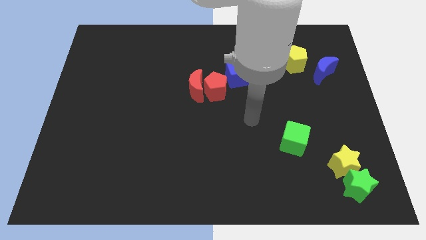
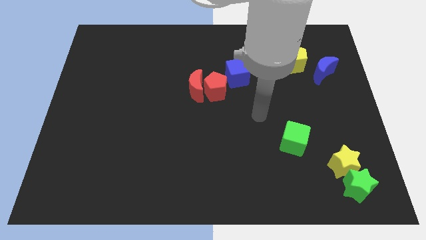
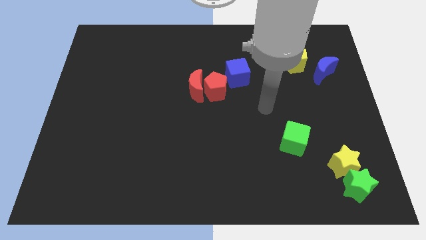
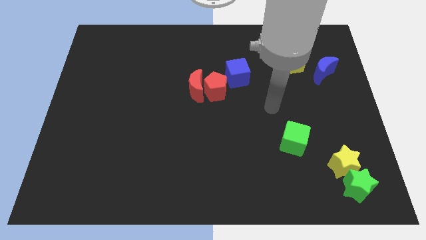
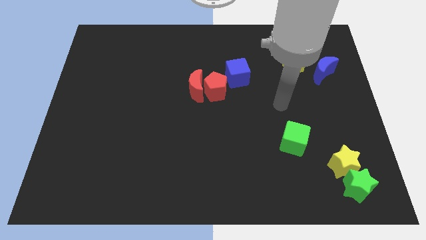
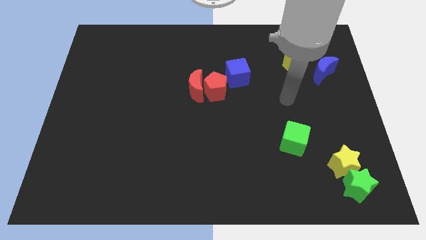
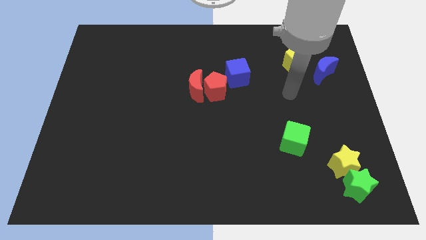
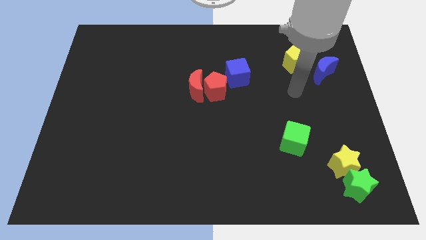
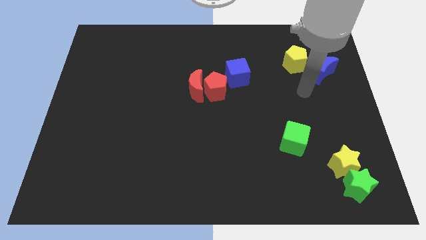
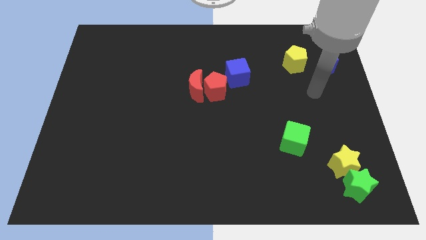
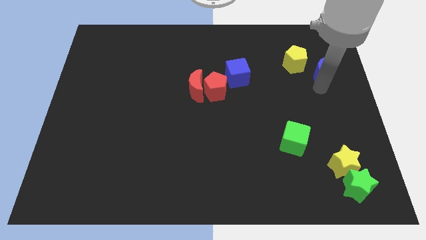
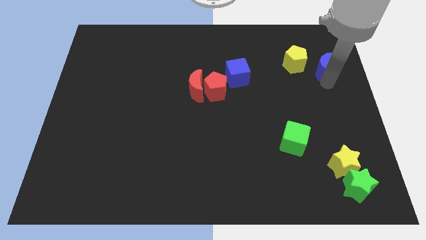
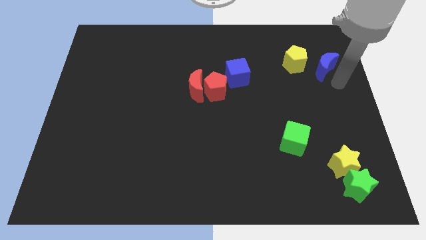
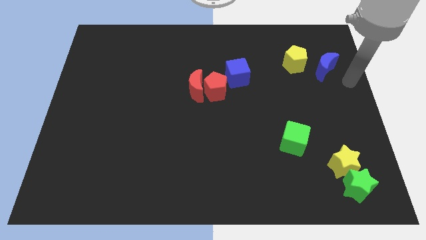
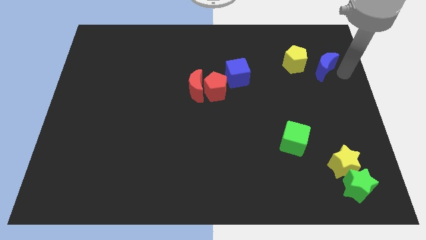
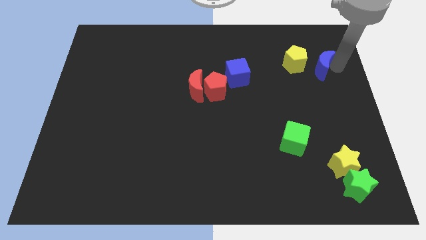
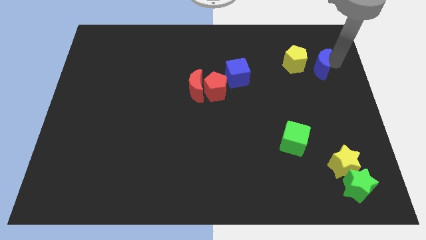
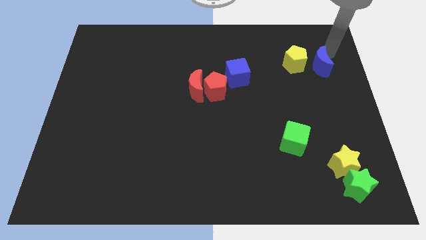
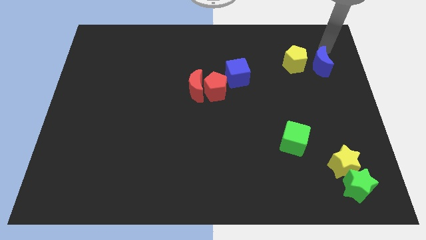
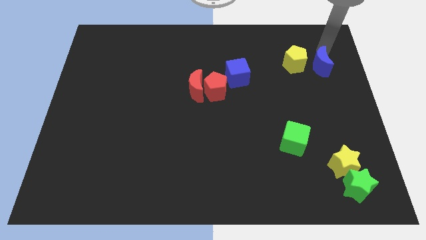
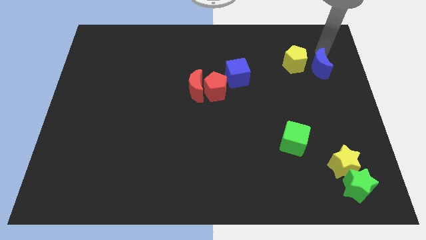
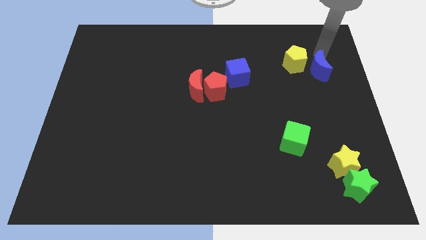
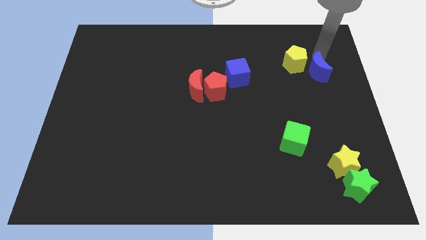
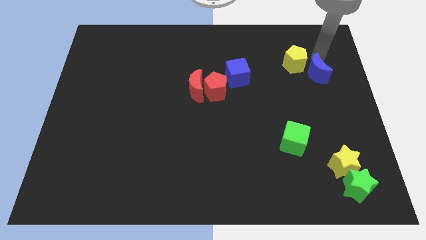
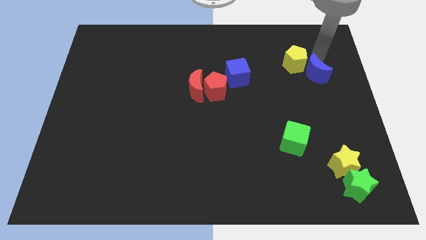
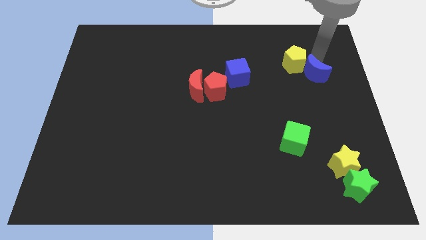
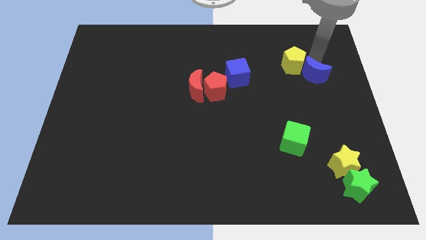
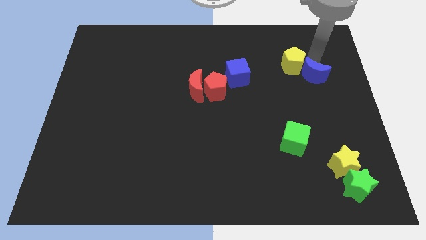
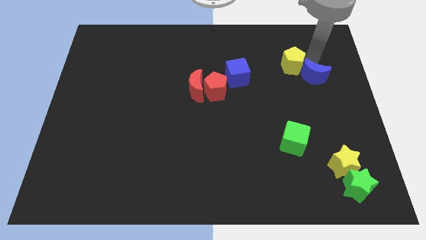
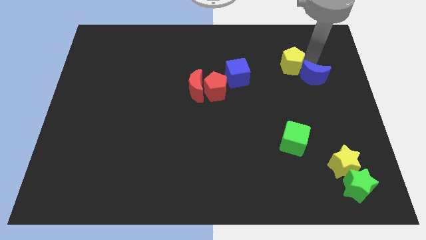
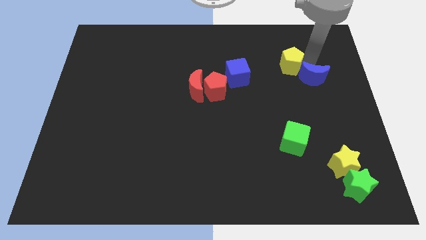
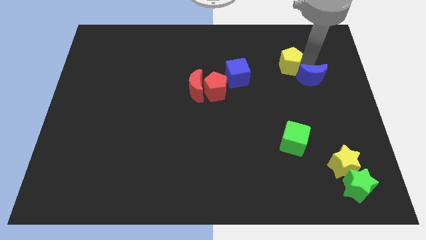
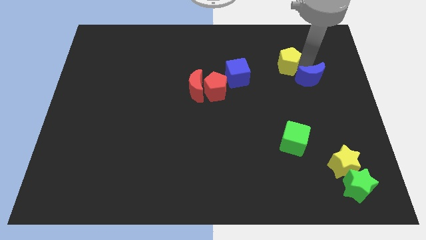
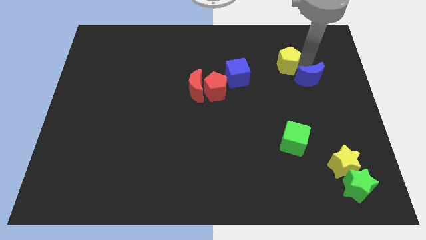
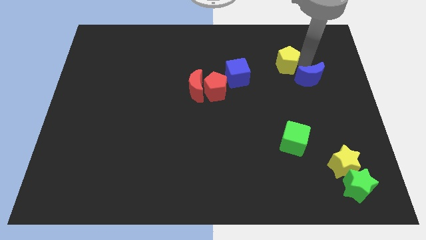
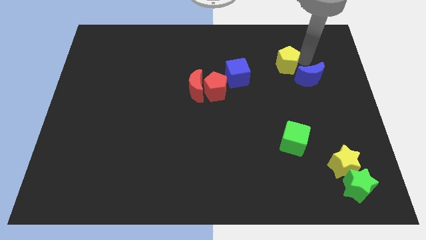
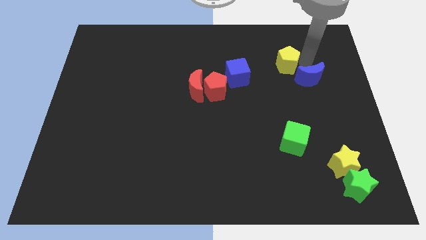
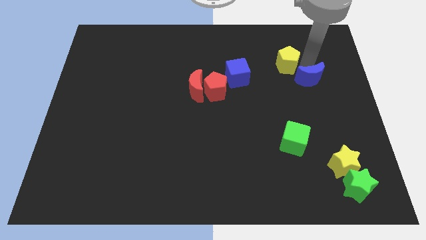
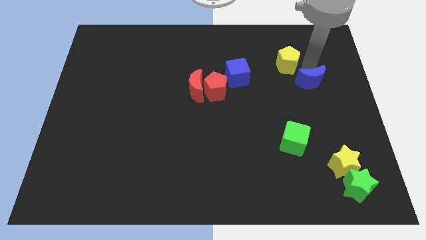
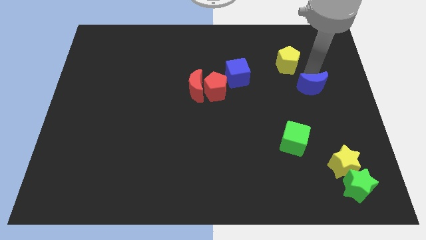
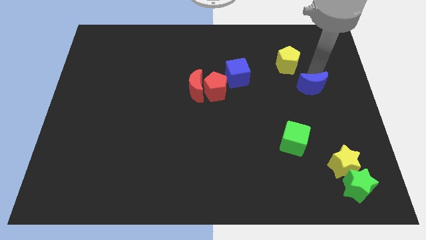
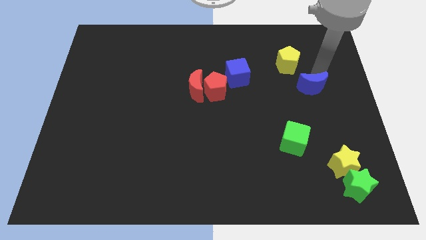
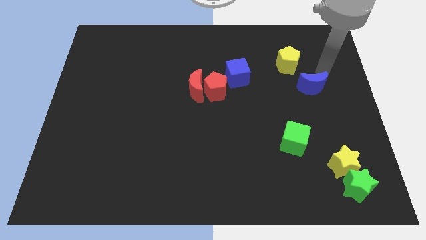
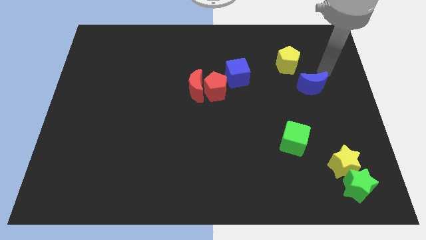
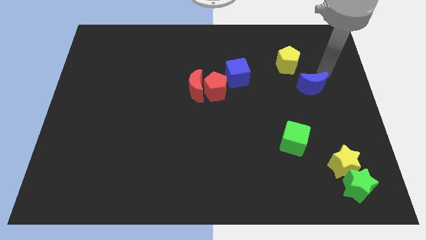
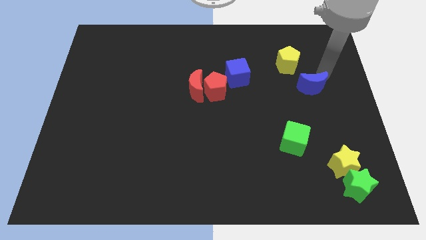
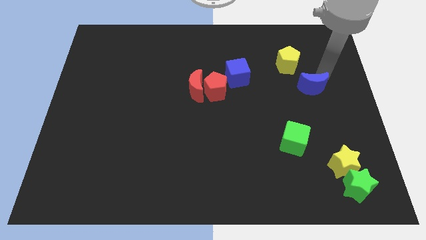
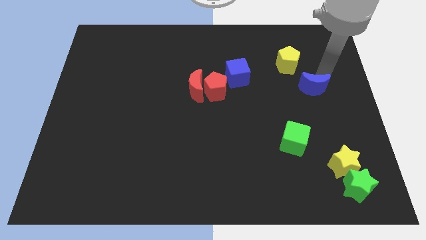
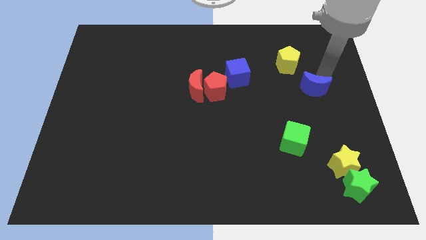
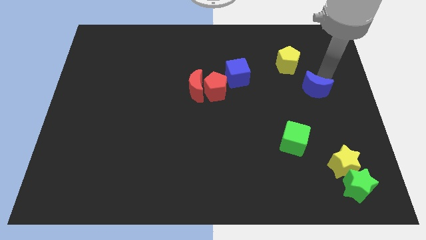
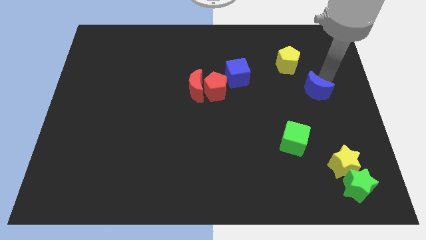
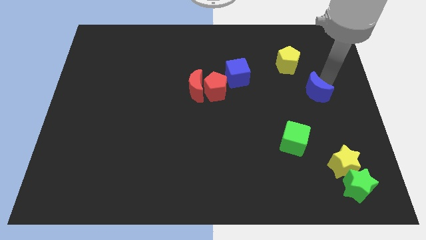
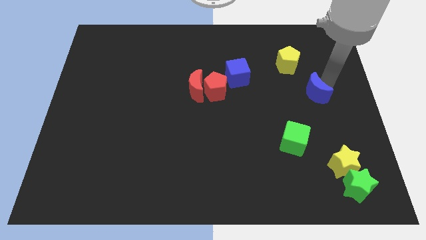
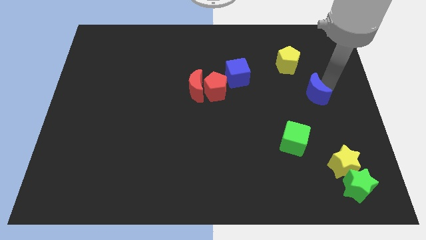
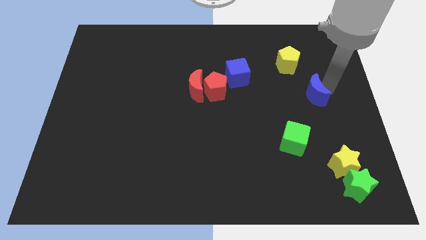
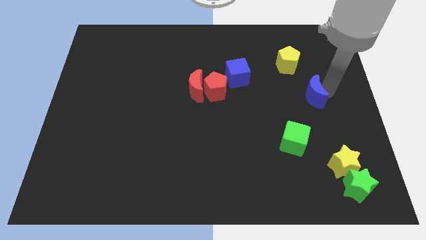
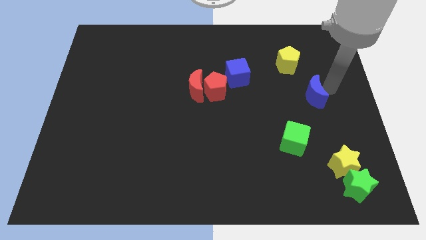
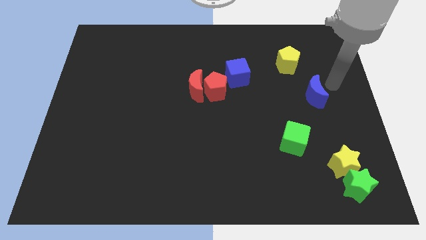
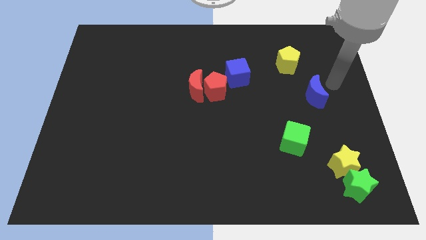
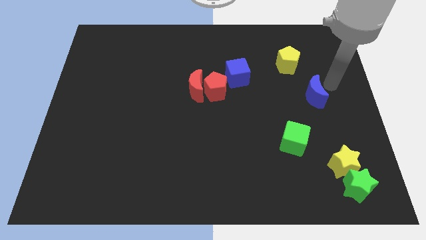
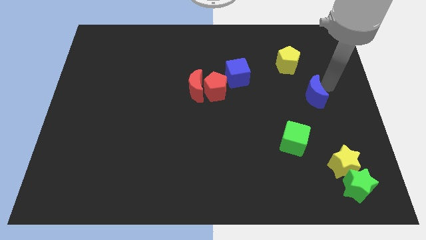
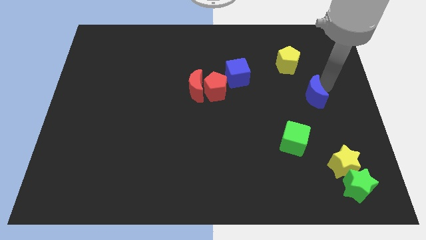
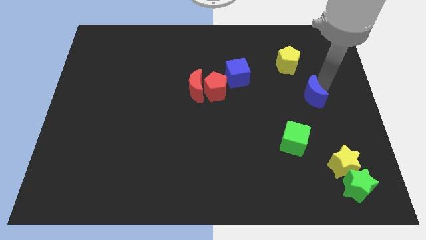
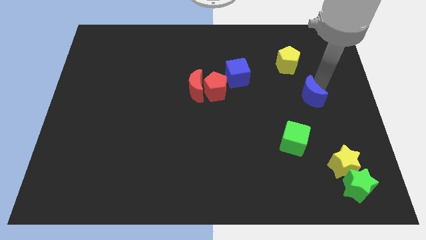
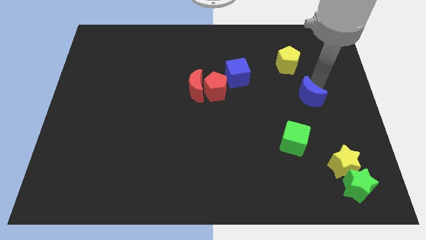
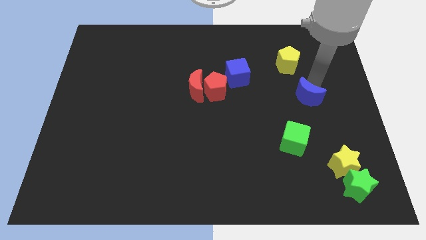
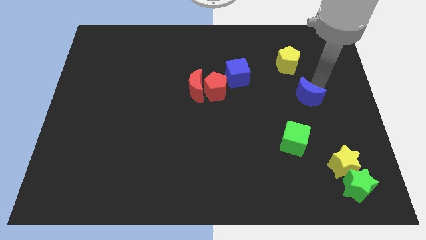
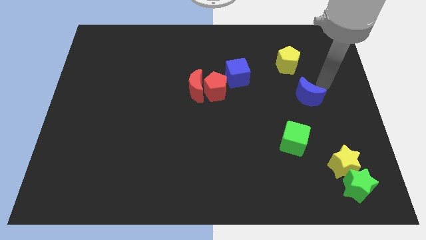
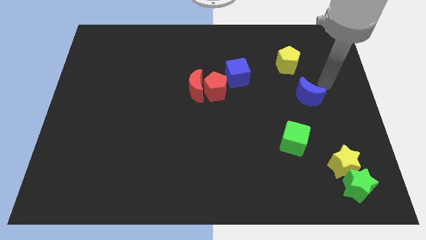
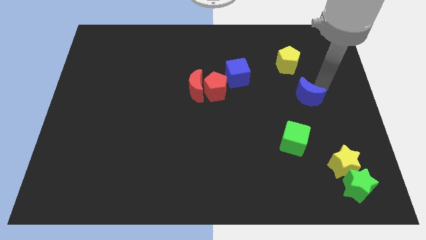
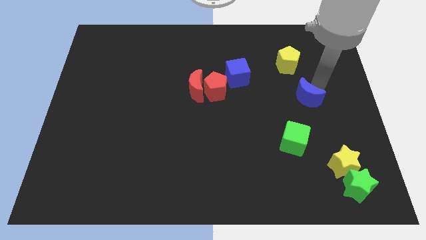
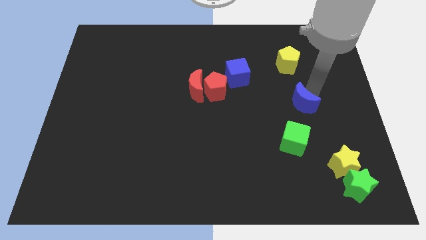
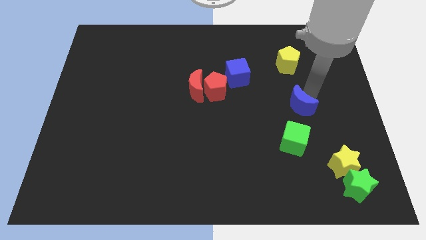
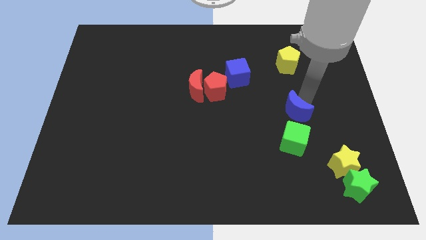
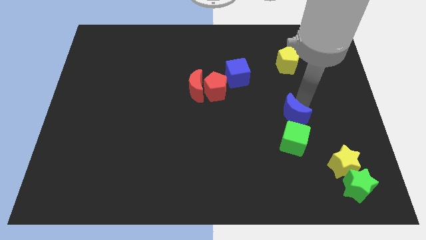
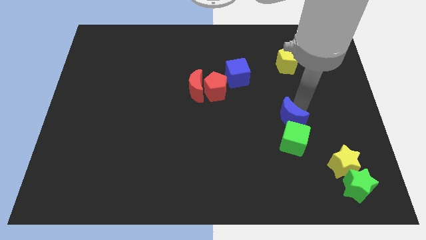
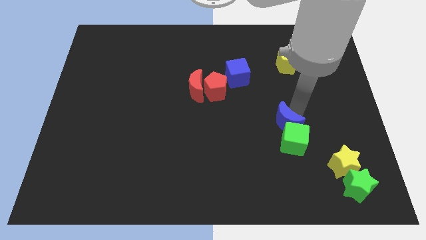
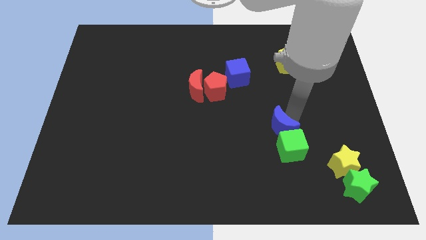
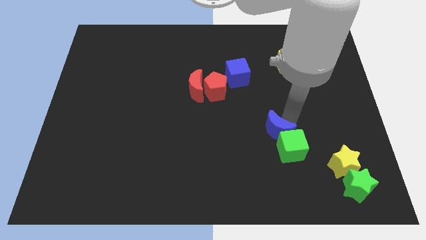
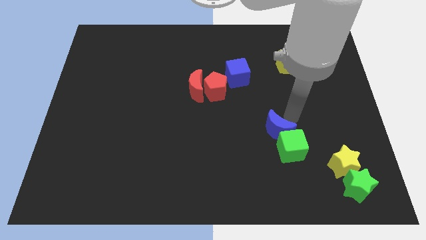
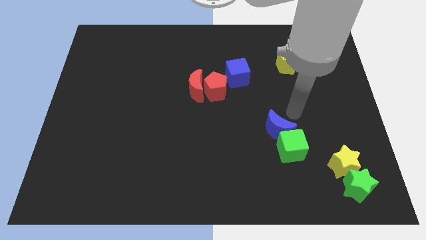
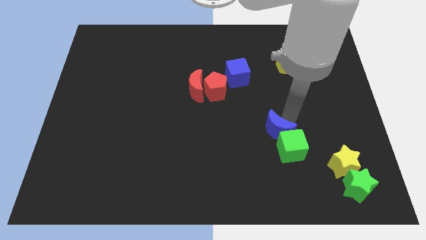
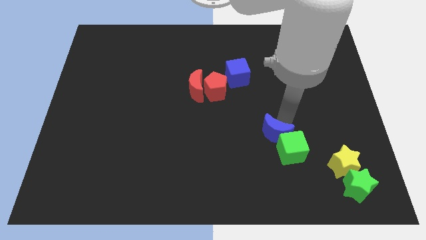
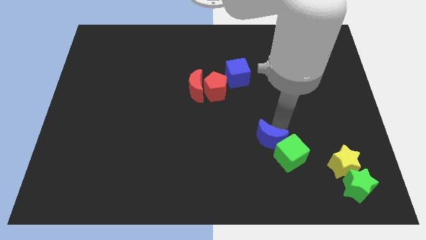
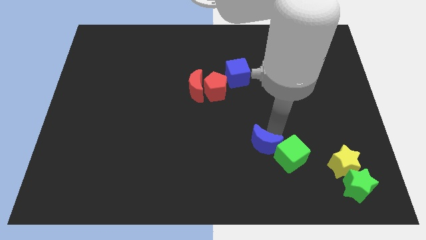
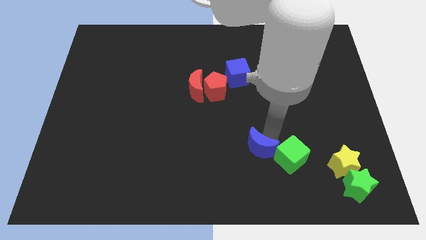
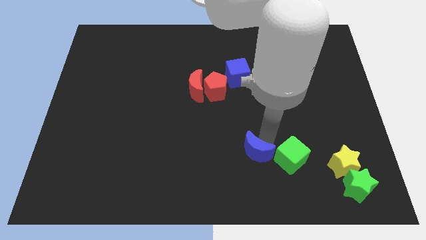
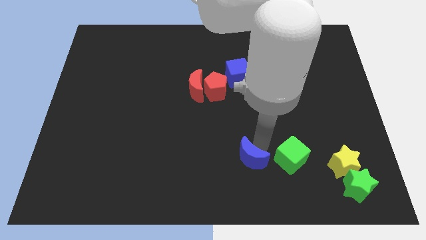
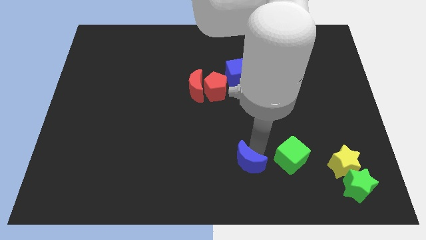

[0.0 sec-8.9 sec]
move the blue moon to the bottom
